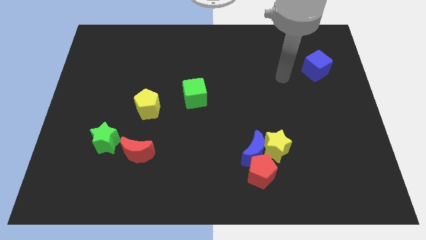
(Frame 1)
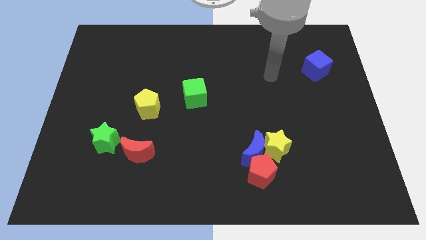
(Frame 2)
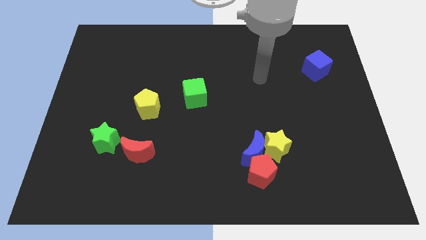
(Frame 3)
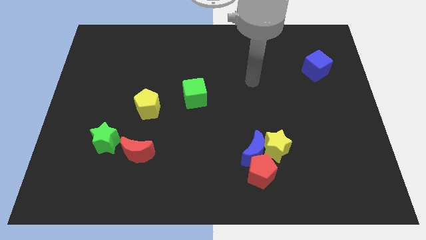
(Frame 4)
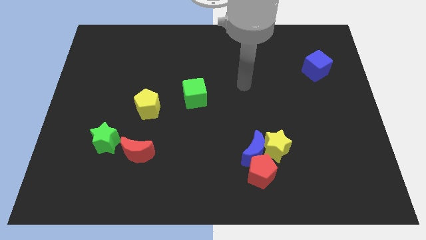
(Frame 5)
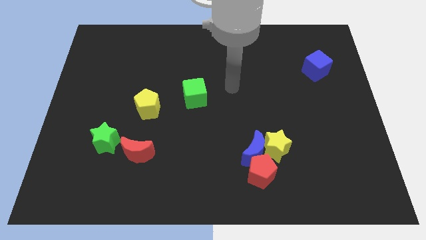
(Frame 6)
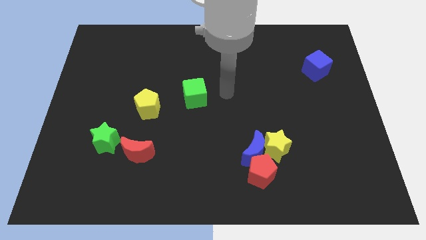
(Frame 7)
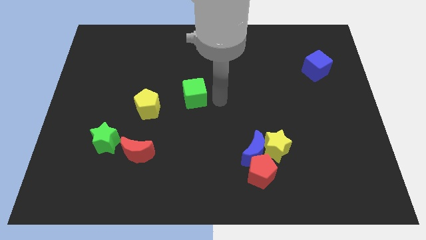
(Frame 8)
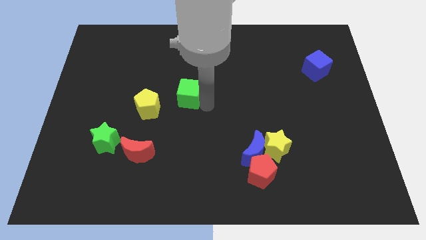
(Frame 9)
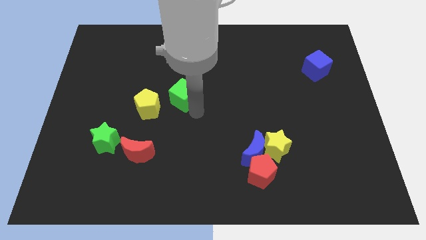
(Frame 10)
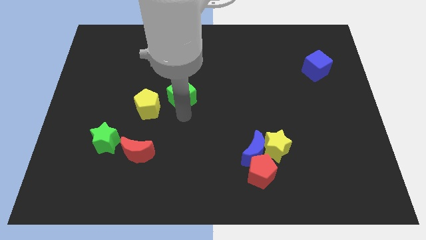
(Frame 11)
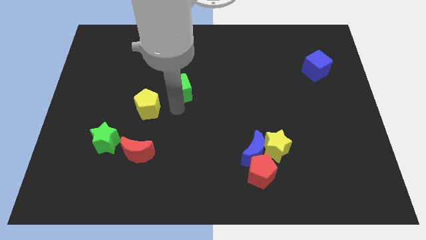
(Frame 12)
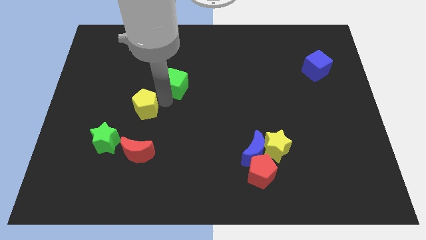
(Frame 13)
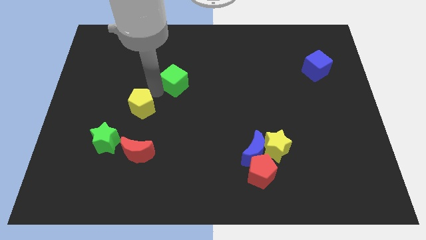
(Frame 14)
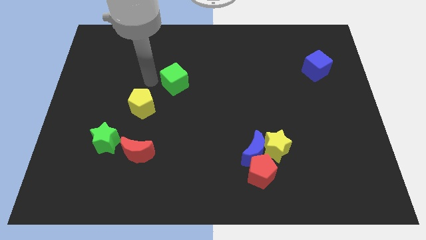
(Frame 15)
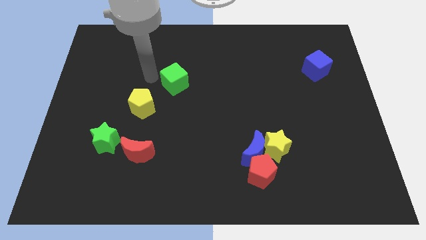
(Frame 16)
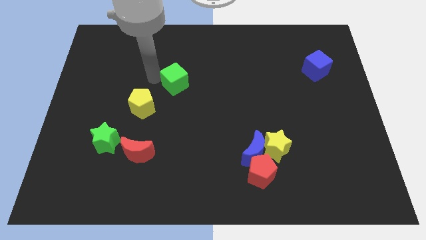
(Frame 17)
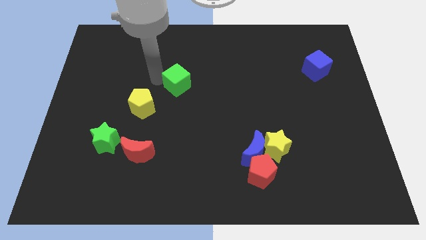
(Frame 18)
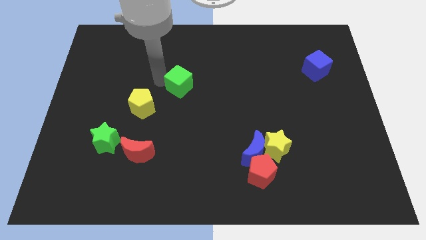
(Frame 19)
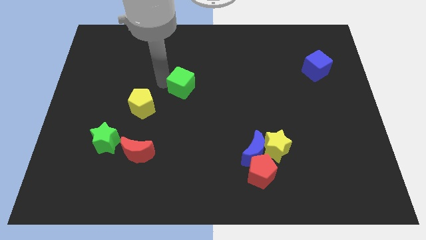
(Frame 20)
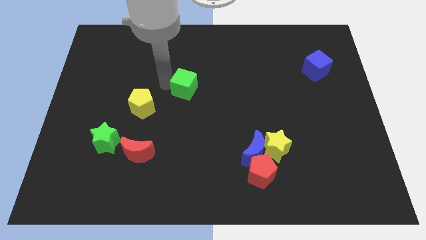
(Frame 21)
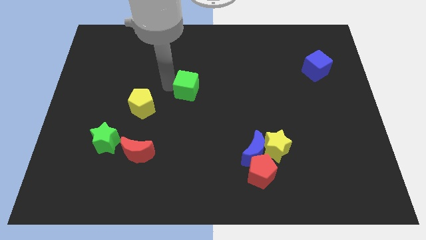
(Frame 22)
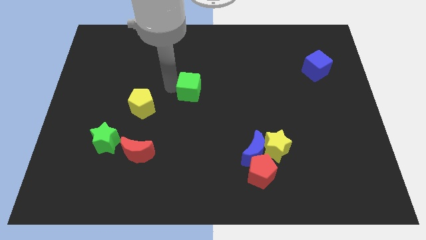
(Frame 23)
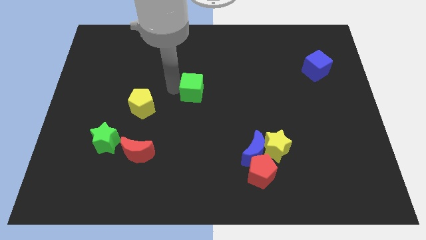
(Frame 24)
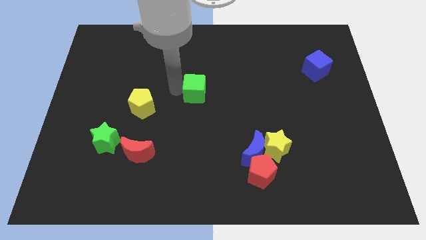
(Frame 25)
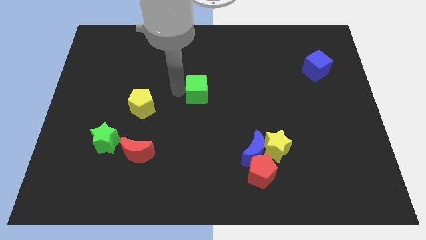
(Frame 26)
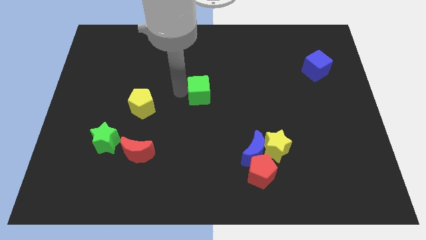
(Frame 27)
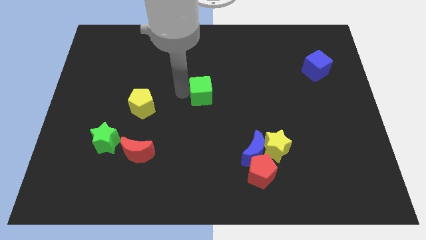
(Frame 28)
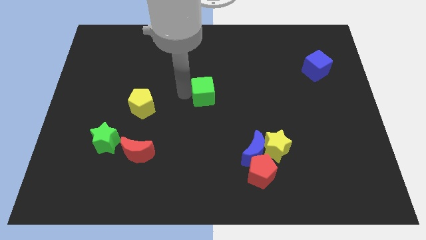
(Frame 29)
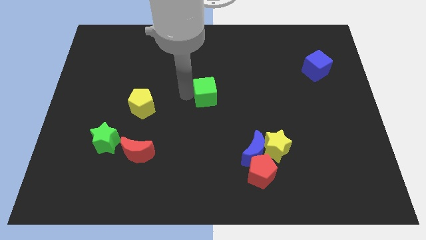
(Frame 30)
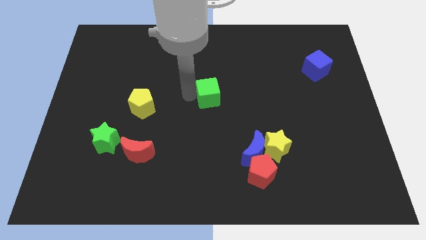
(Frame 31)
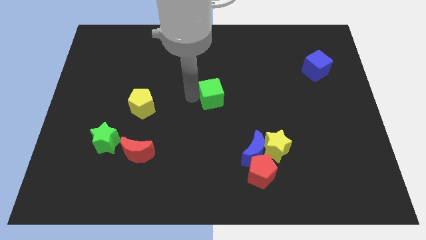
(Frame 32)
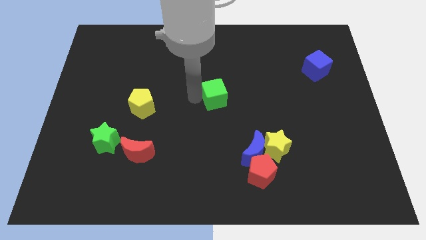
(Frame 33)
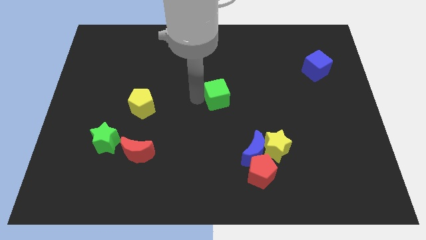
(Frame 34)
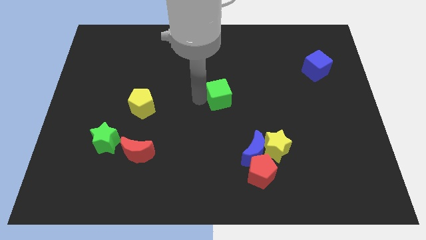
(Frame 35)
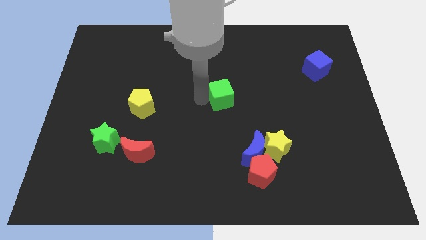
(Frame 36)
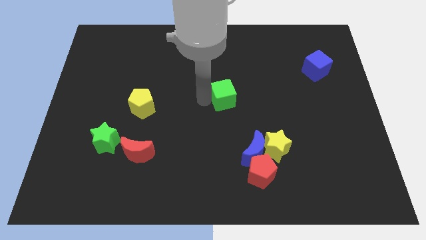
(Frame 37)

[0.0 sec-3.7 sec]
push the green cube right slightly

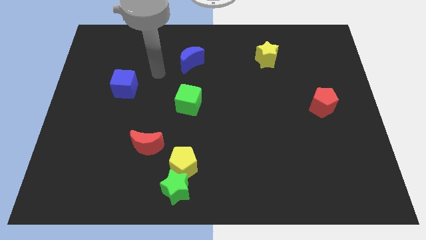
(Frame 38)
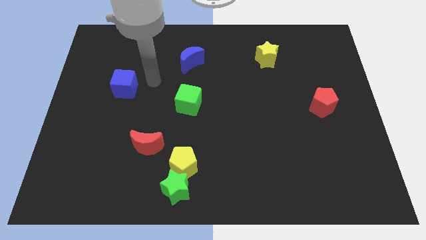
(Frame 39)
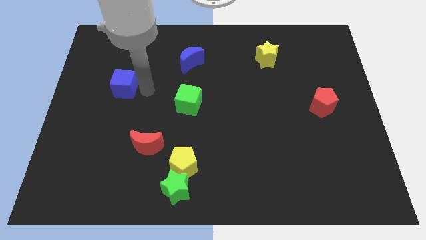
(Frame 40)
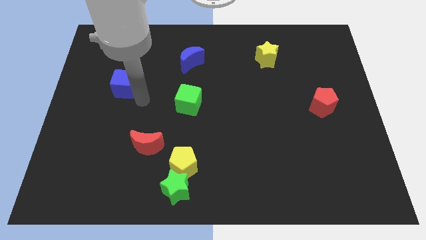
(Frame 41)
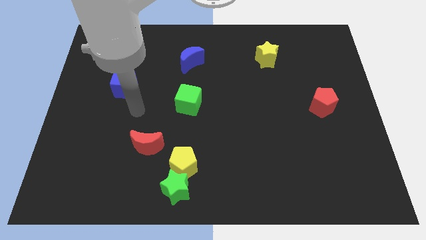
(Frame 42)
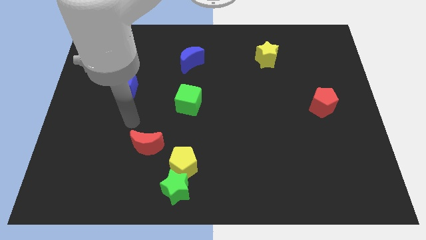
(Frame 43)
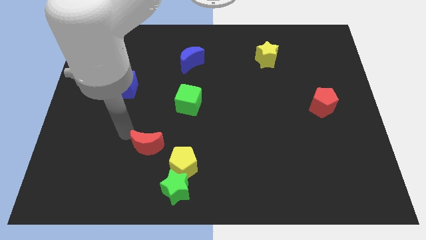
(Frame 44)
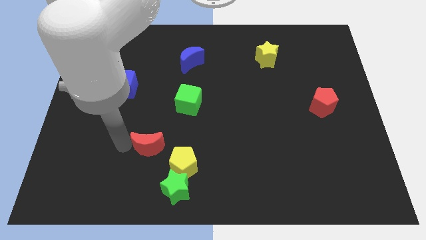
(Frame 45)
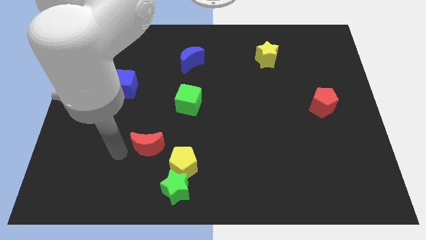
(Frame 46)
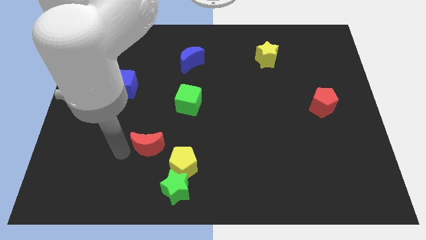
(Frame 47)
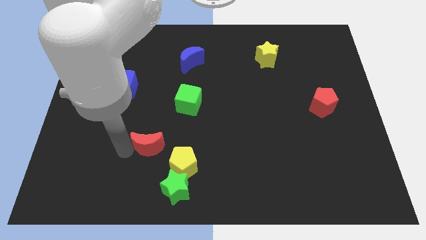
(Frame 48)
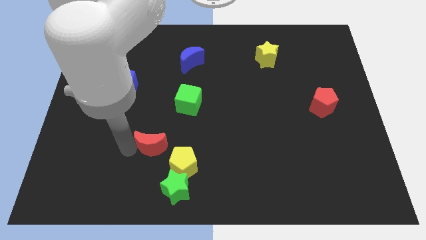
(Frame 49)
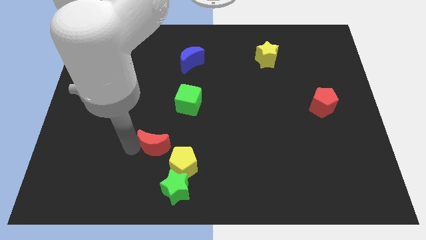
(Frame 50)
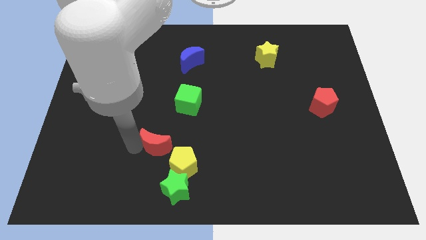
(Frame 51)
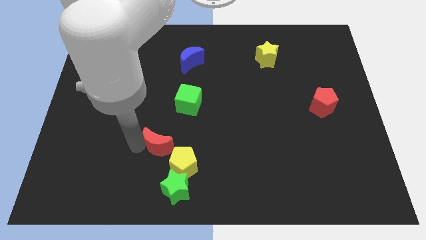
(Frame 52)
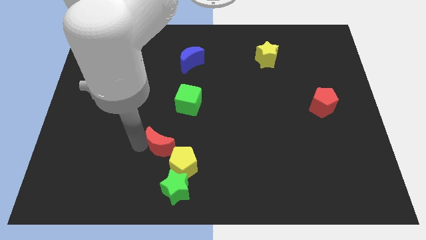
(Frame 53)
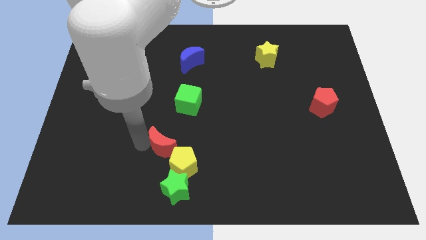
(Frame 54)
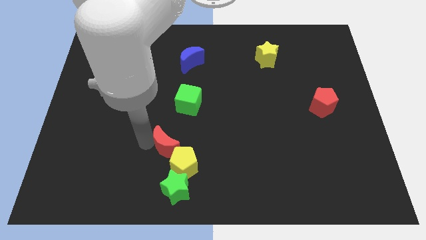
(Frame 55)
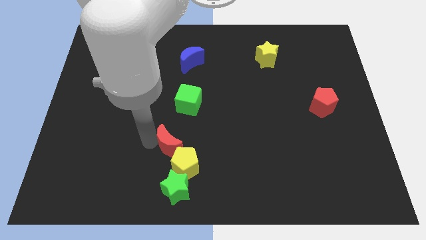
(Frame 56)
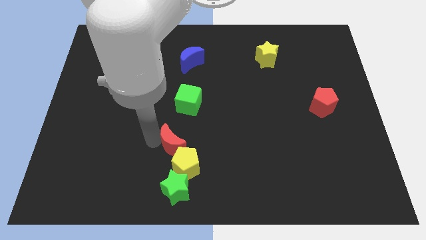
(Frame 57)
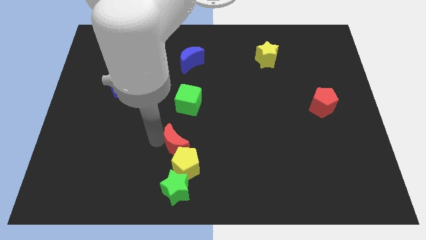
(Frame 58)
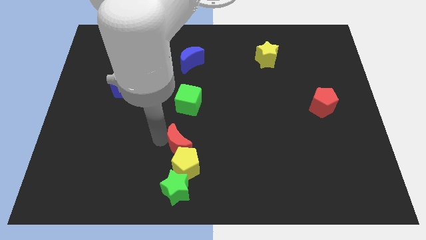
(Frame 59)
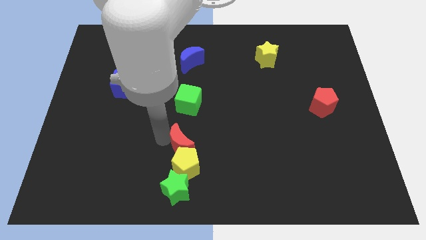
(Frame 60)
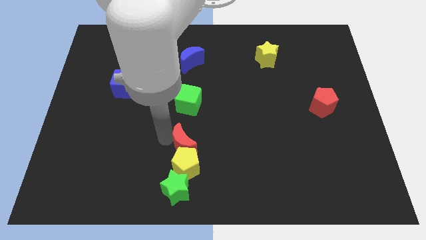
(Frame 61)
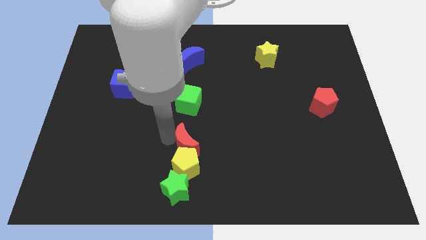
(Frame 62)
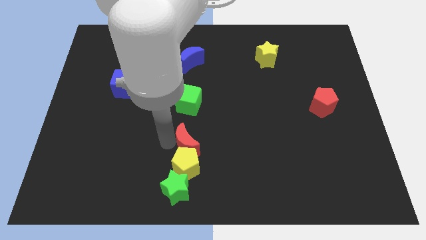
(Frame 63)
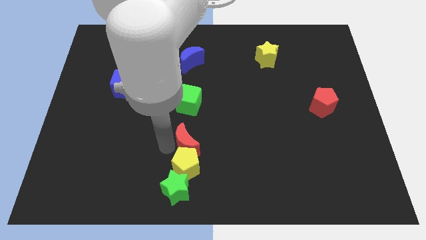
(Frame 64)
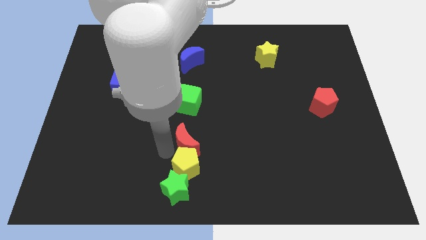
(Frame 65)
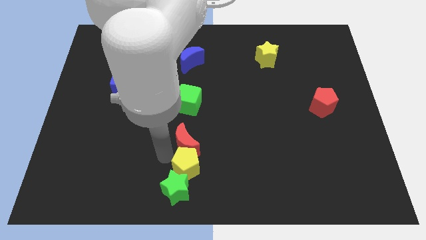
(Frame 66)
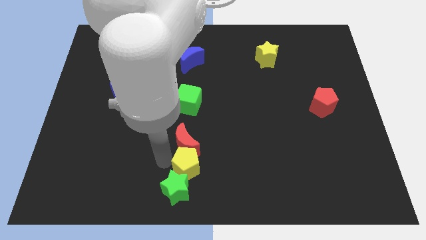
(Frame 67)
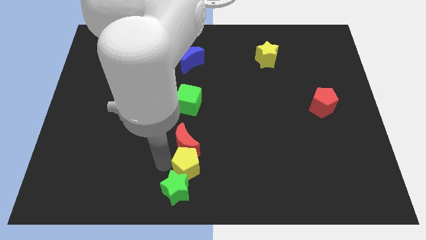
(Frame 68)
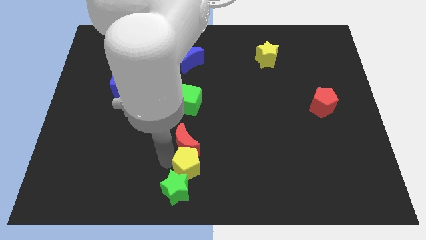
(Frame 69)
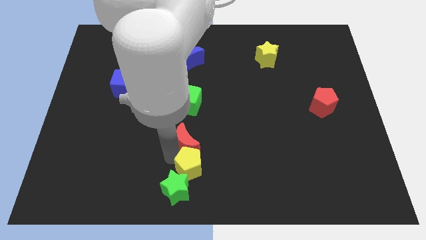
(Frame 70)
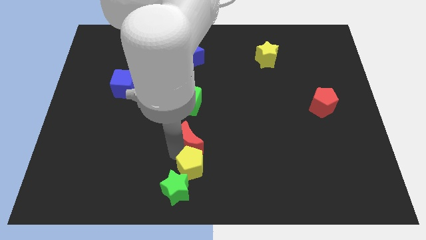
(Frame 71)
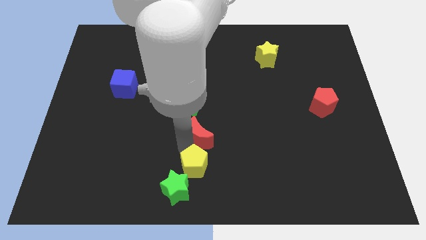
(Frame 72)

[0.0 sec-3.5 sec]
slide the red moon up and then to the right a bit

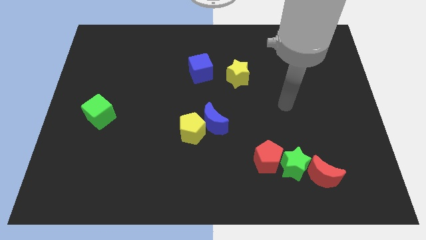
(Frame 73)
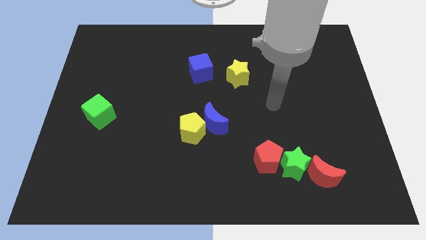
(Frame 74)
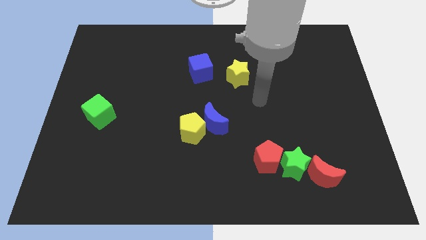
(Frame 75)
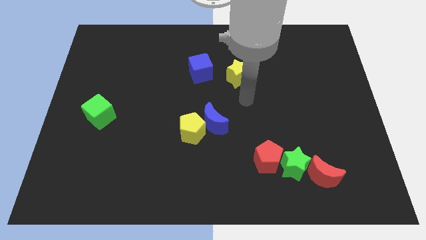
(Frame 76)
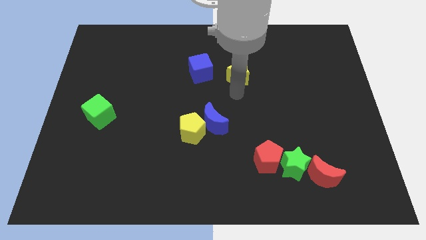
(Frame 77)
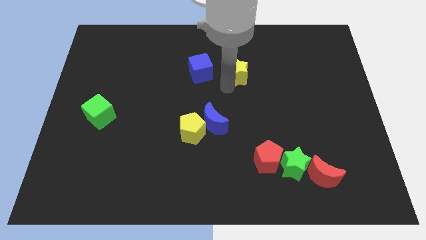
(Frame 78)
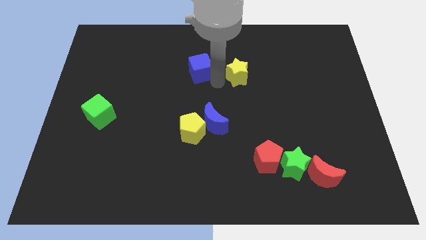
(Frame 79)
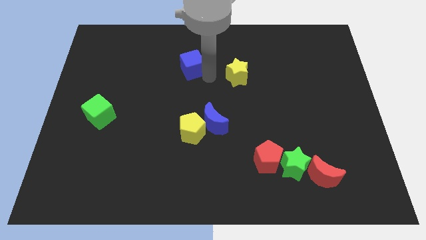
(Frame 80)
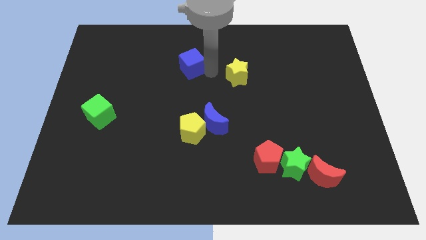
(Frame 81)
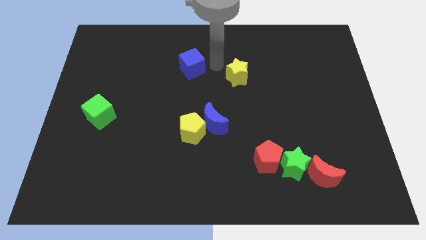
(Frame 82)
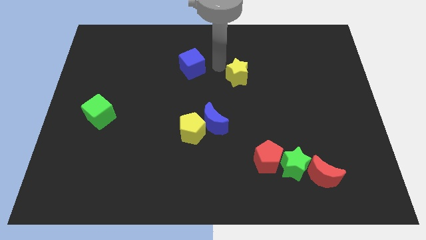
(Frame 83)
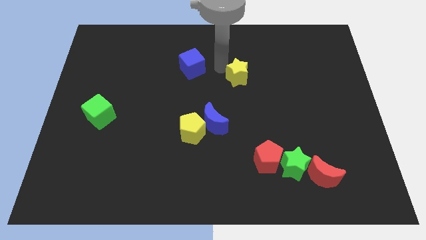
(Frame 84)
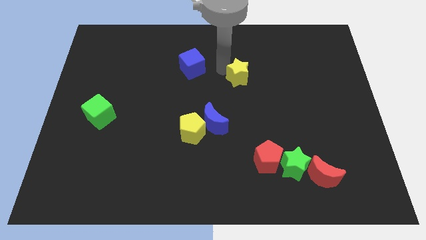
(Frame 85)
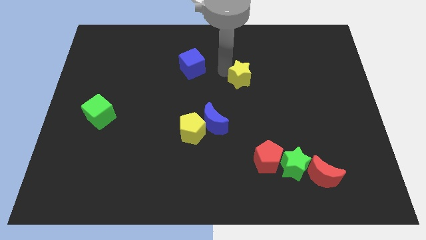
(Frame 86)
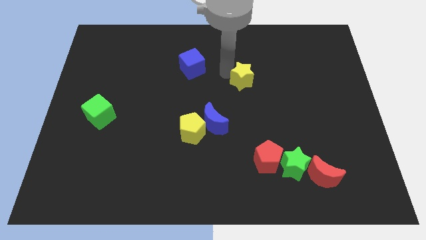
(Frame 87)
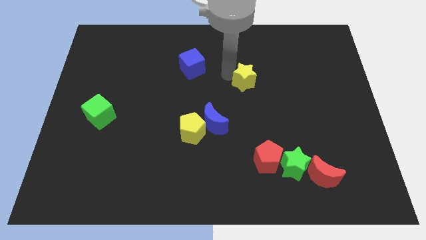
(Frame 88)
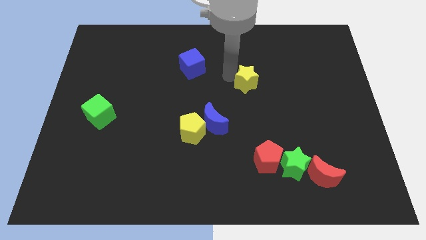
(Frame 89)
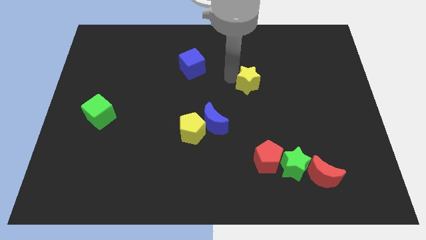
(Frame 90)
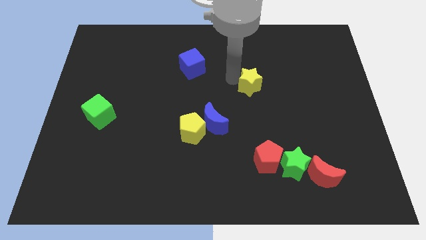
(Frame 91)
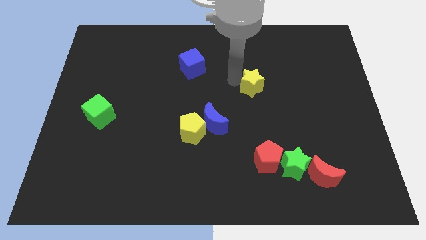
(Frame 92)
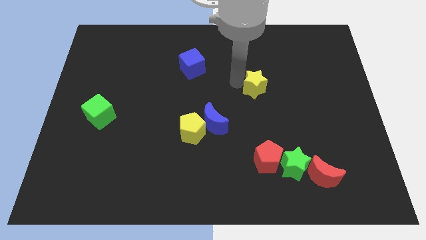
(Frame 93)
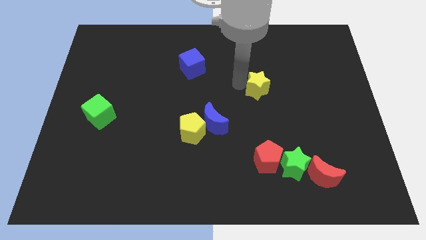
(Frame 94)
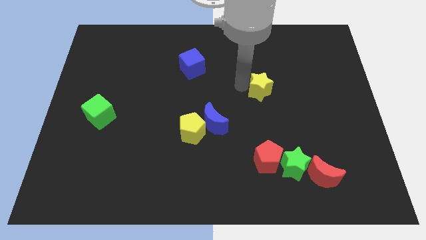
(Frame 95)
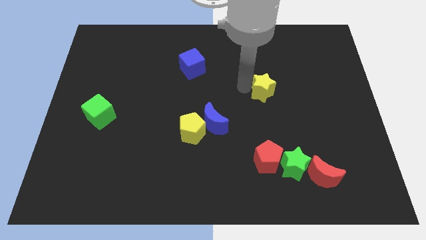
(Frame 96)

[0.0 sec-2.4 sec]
slide the yellow star down and then to the right a bit
